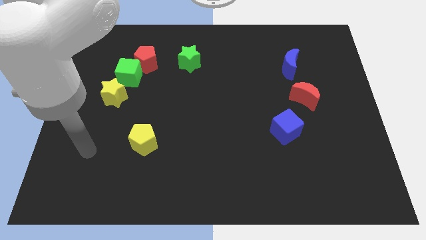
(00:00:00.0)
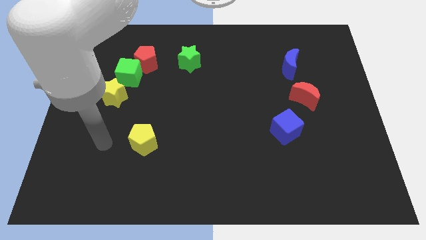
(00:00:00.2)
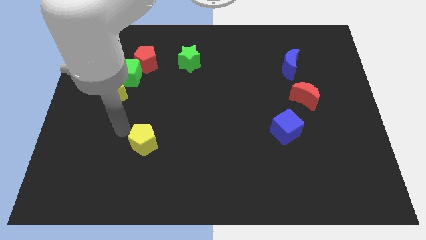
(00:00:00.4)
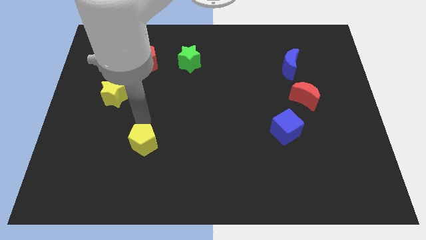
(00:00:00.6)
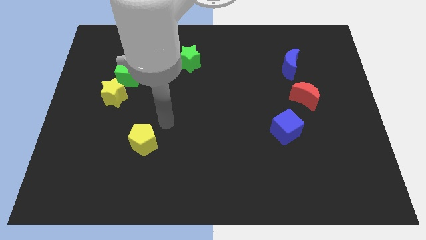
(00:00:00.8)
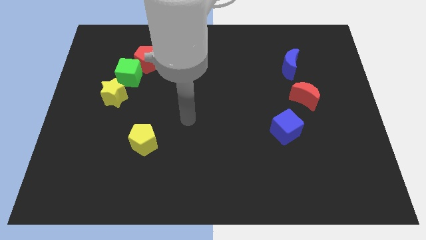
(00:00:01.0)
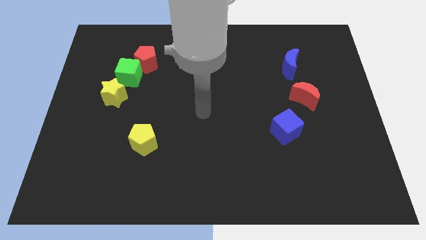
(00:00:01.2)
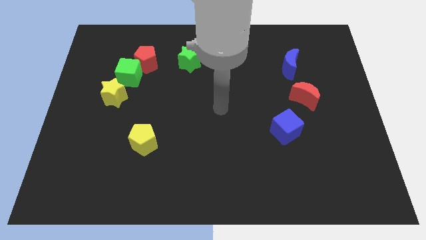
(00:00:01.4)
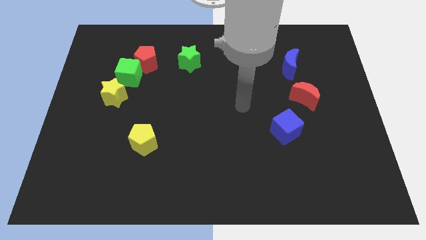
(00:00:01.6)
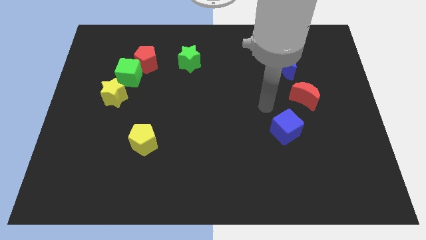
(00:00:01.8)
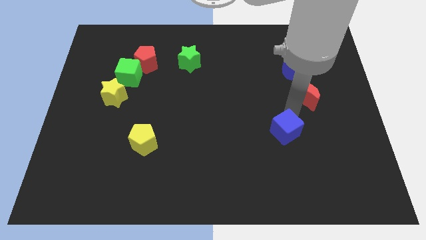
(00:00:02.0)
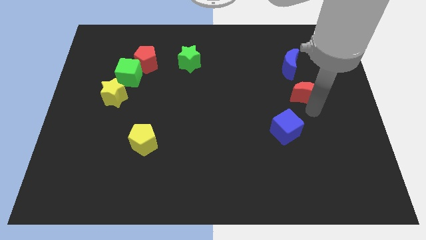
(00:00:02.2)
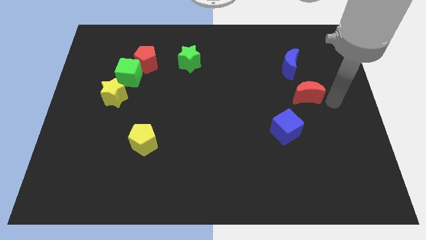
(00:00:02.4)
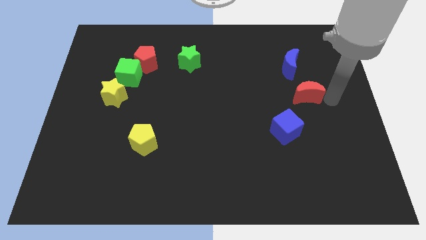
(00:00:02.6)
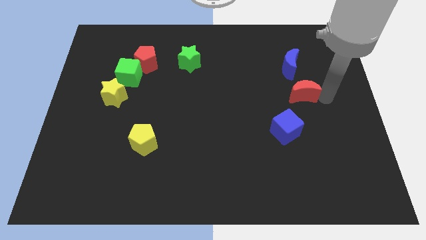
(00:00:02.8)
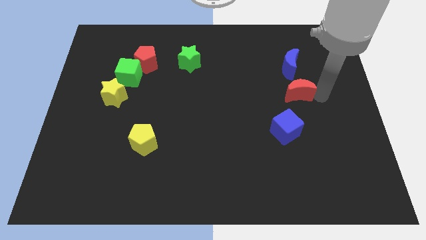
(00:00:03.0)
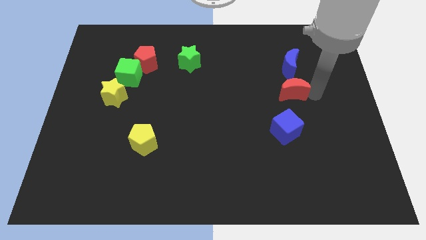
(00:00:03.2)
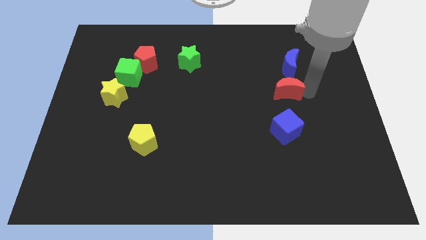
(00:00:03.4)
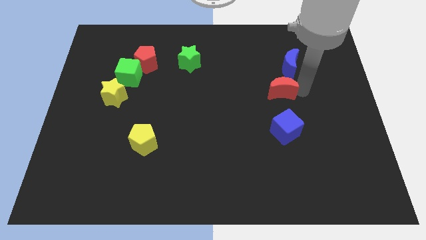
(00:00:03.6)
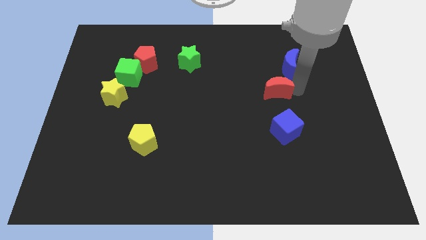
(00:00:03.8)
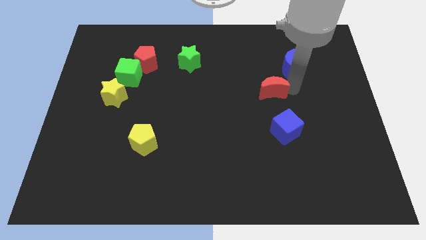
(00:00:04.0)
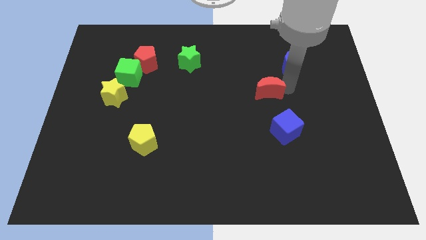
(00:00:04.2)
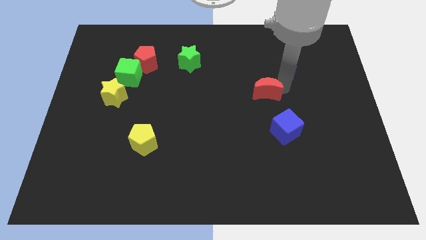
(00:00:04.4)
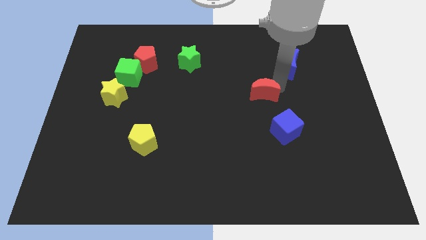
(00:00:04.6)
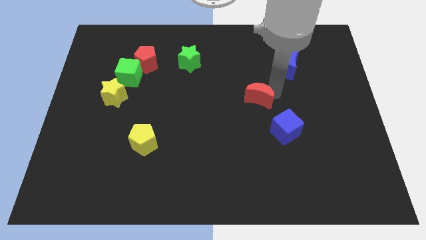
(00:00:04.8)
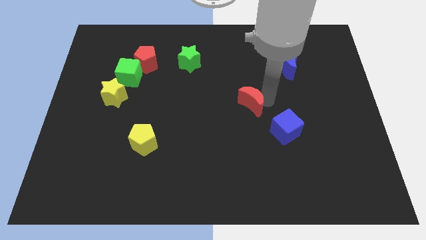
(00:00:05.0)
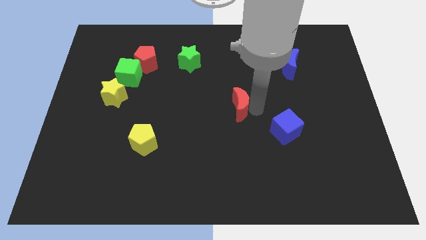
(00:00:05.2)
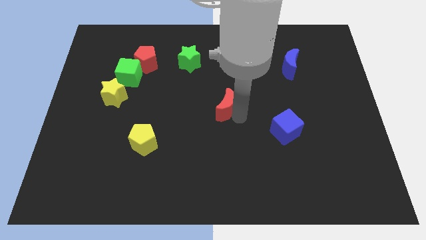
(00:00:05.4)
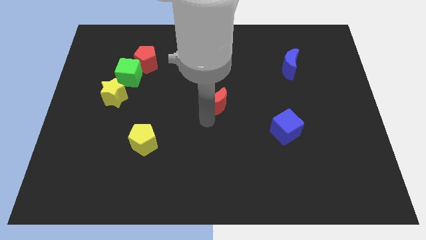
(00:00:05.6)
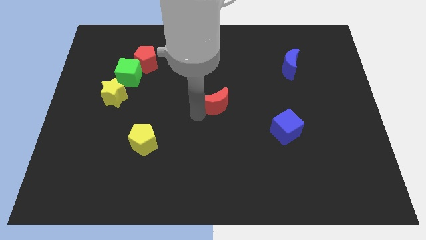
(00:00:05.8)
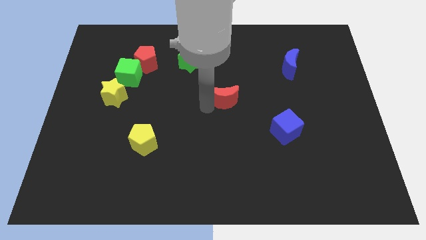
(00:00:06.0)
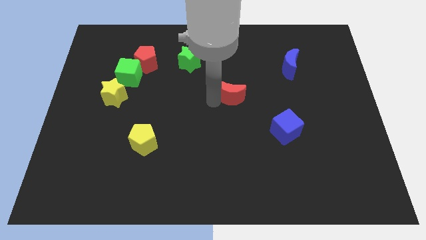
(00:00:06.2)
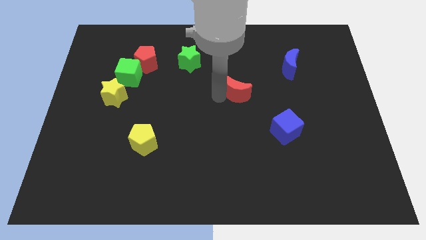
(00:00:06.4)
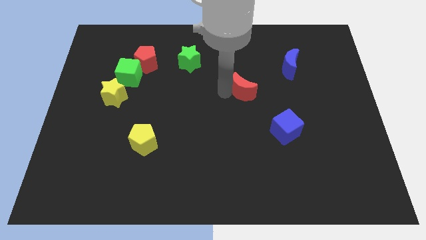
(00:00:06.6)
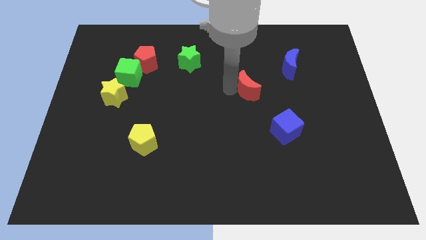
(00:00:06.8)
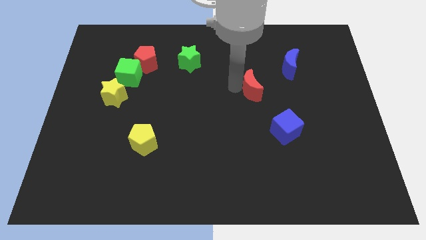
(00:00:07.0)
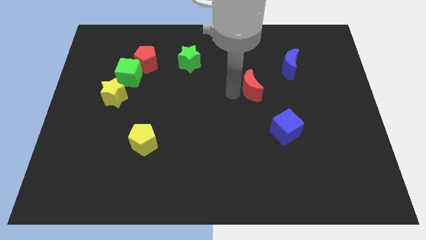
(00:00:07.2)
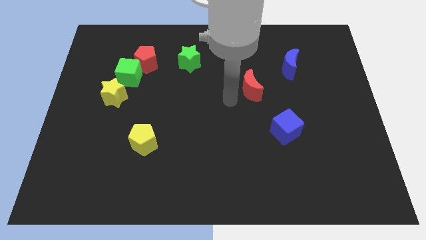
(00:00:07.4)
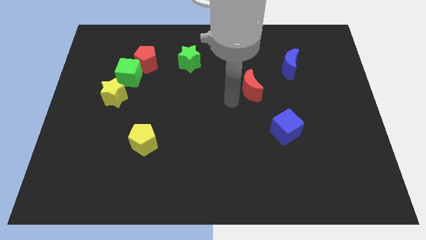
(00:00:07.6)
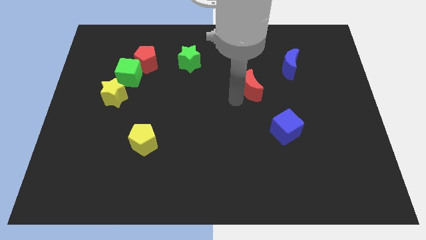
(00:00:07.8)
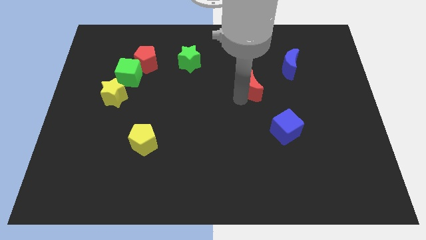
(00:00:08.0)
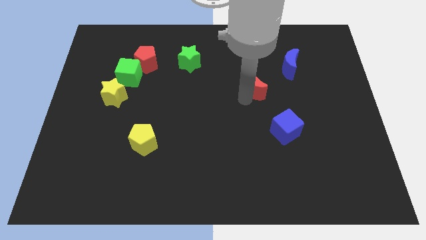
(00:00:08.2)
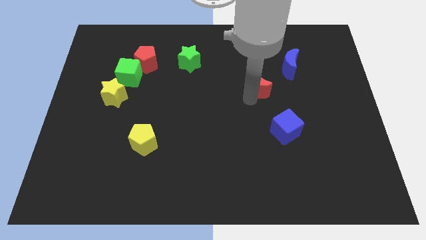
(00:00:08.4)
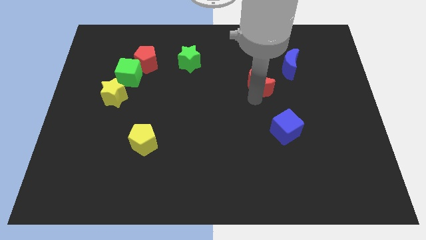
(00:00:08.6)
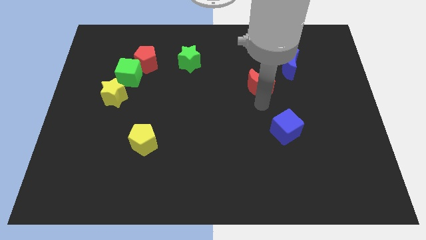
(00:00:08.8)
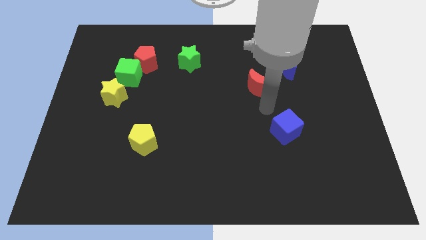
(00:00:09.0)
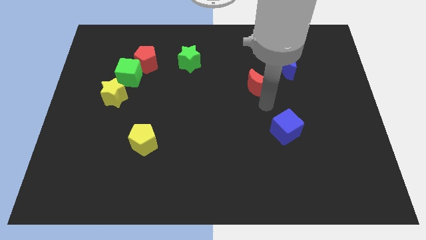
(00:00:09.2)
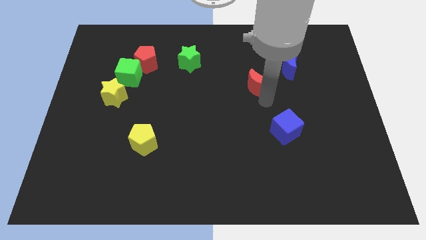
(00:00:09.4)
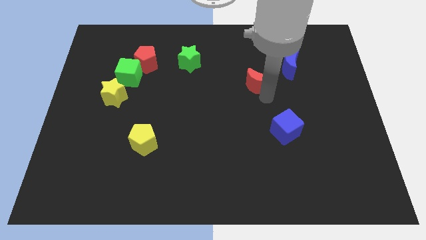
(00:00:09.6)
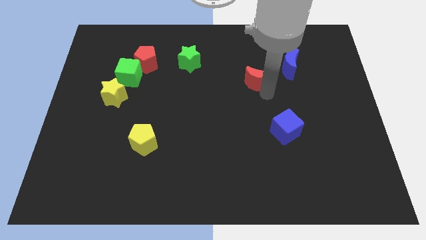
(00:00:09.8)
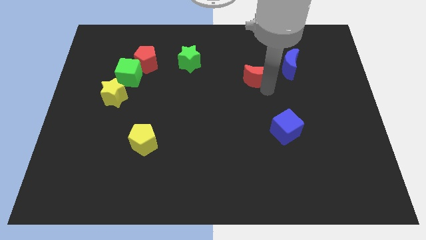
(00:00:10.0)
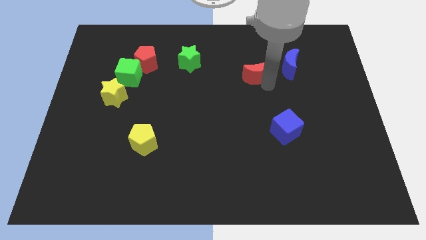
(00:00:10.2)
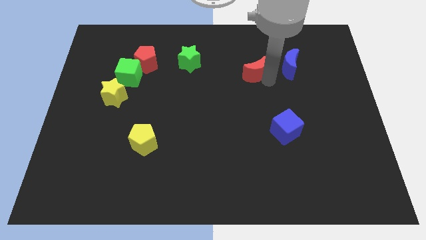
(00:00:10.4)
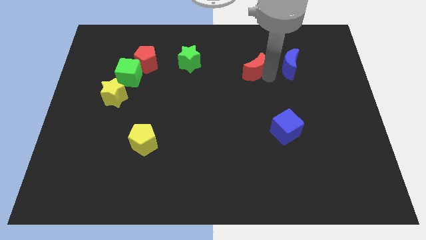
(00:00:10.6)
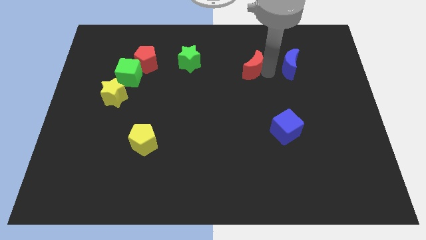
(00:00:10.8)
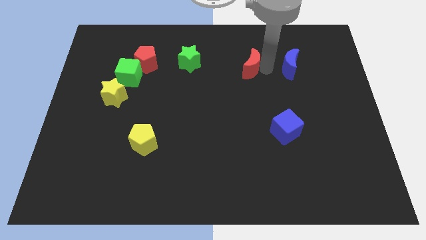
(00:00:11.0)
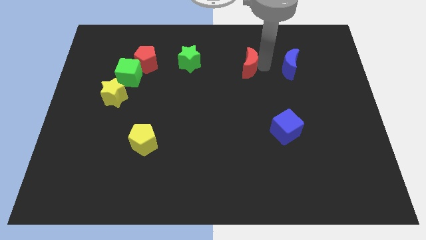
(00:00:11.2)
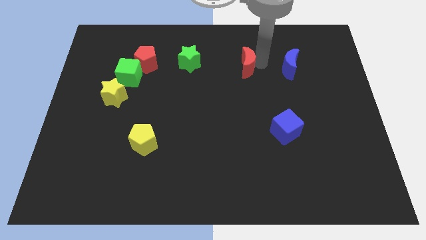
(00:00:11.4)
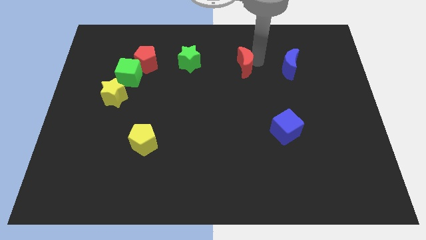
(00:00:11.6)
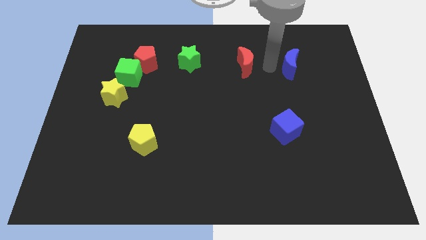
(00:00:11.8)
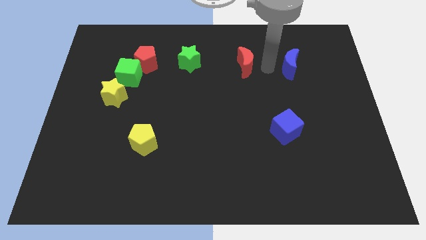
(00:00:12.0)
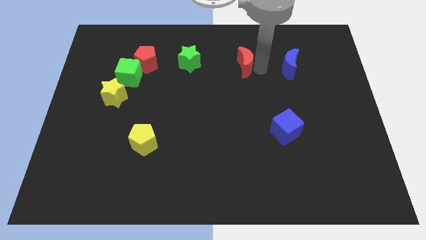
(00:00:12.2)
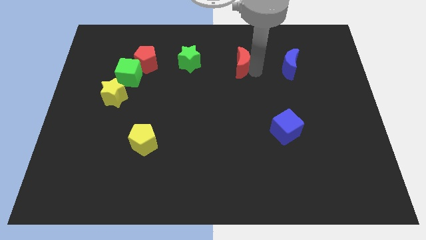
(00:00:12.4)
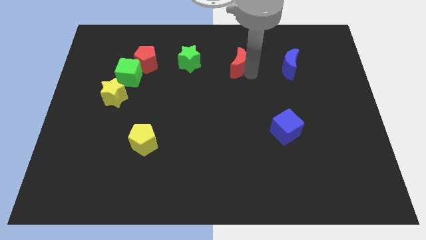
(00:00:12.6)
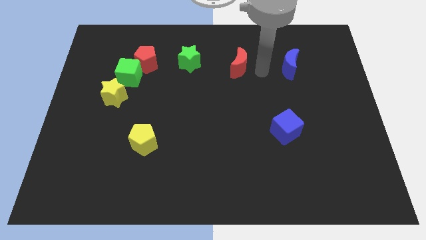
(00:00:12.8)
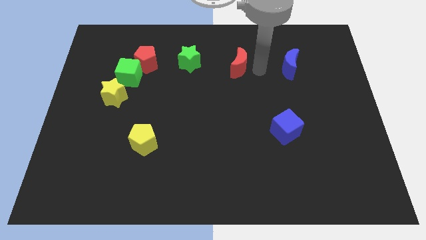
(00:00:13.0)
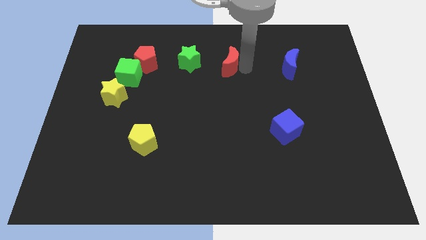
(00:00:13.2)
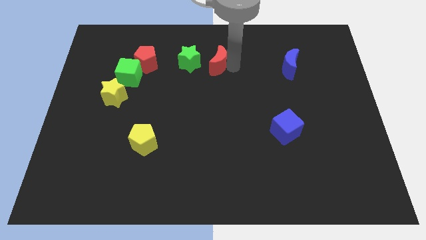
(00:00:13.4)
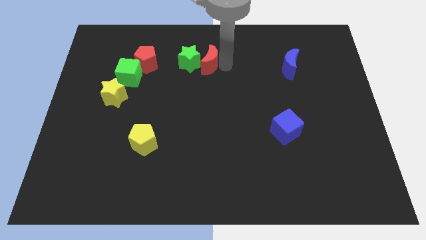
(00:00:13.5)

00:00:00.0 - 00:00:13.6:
move the red moon to the green star

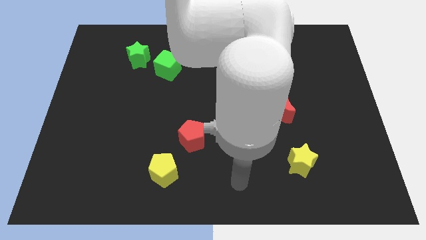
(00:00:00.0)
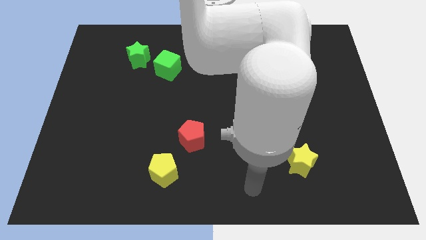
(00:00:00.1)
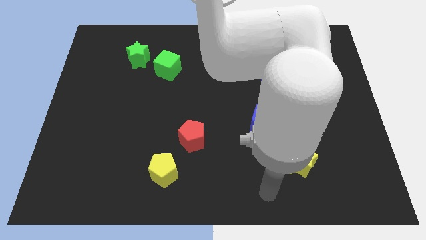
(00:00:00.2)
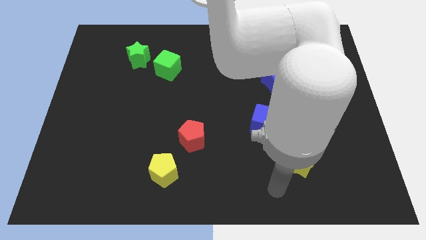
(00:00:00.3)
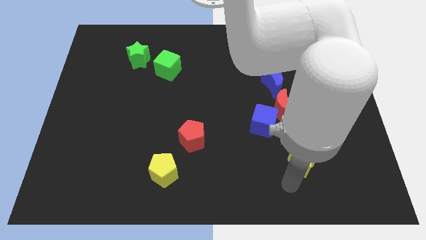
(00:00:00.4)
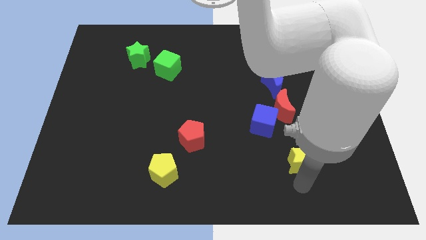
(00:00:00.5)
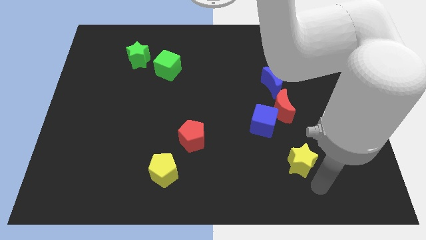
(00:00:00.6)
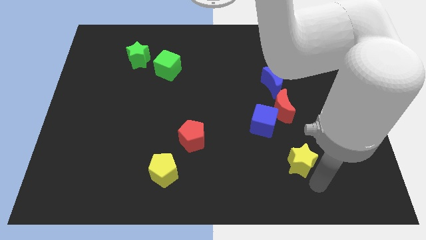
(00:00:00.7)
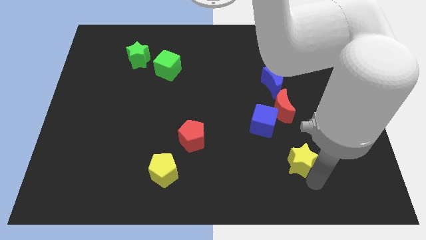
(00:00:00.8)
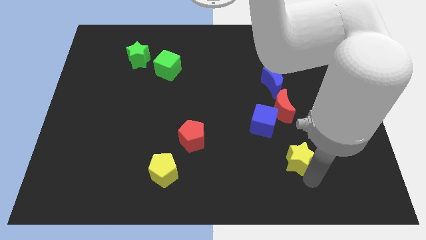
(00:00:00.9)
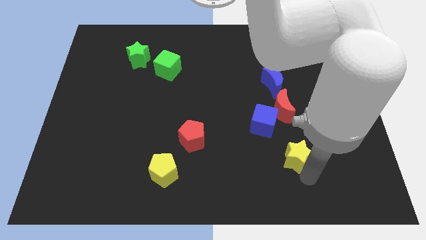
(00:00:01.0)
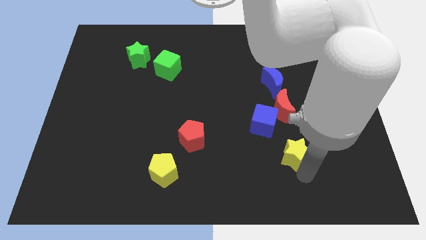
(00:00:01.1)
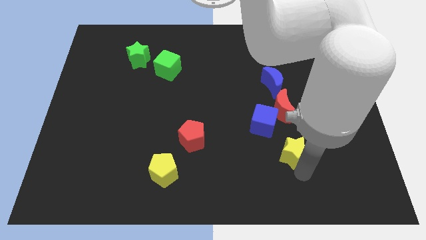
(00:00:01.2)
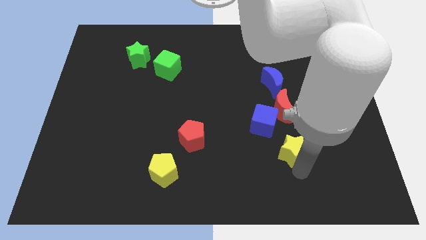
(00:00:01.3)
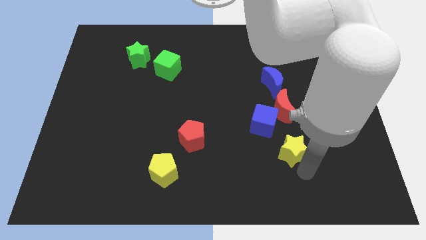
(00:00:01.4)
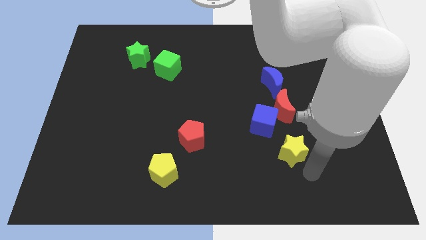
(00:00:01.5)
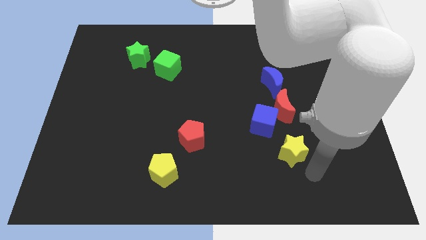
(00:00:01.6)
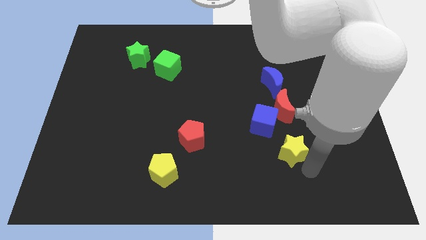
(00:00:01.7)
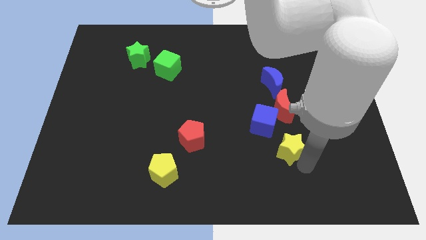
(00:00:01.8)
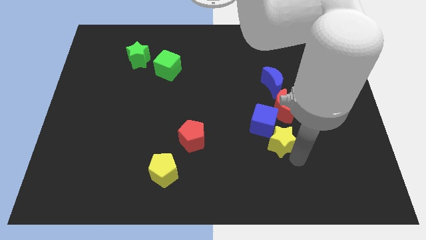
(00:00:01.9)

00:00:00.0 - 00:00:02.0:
put the yellow star to the blue cube
